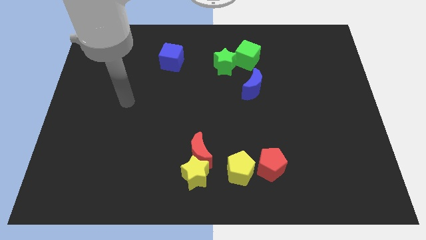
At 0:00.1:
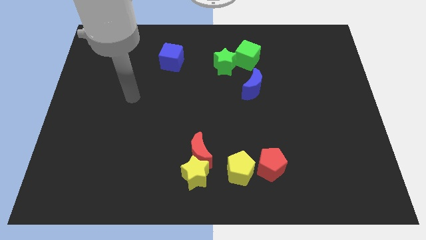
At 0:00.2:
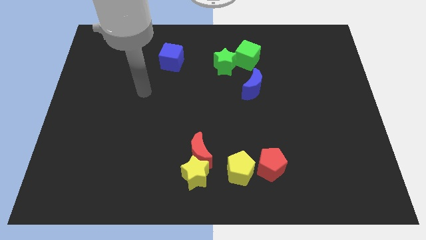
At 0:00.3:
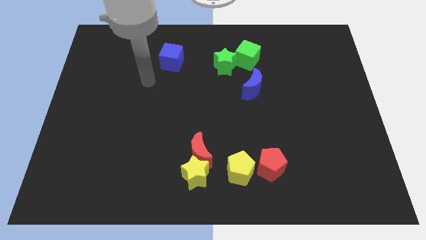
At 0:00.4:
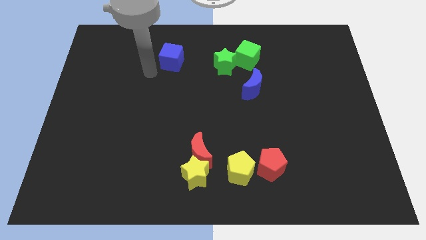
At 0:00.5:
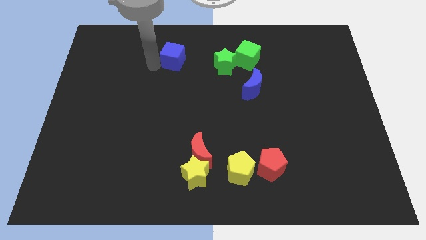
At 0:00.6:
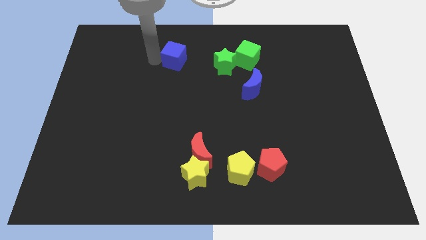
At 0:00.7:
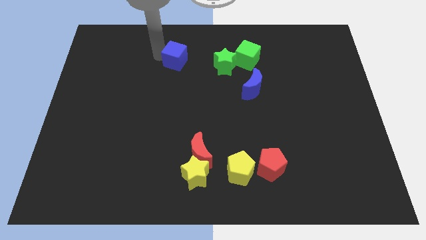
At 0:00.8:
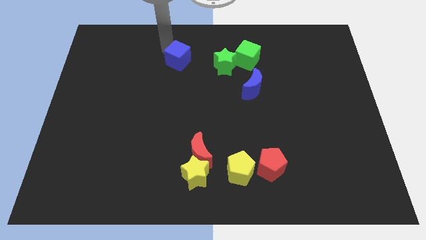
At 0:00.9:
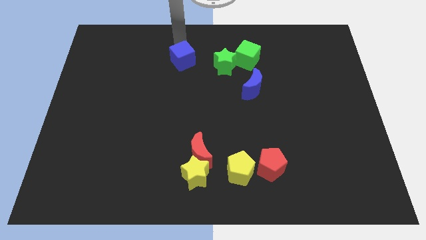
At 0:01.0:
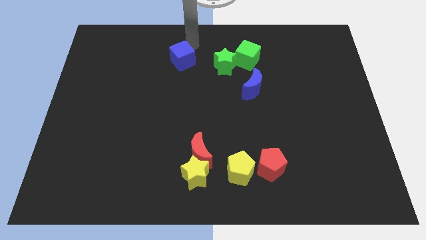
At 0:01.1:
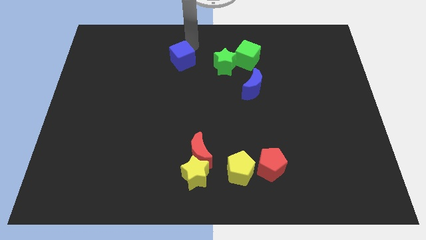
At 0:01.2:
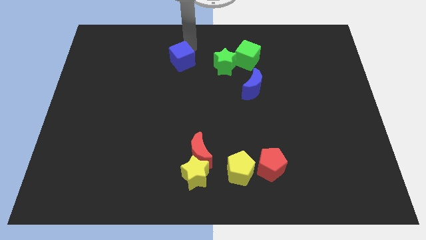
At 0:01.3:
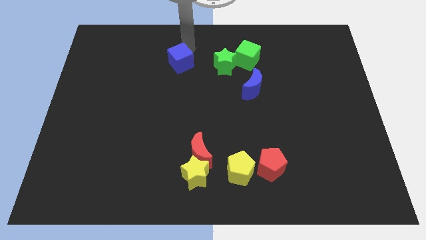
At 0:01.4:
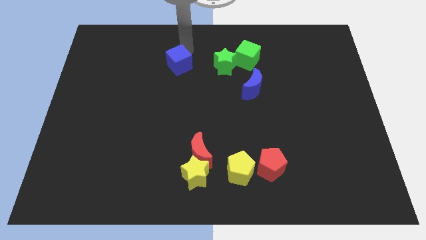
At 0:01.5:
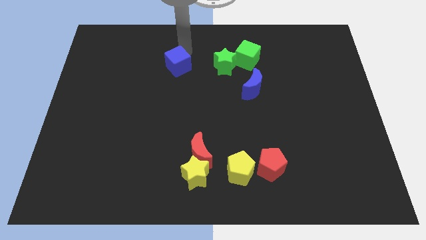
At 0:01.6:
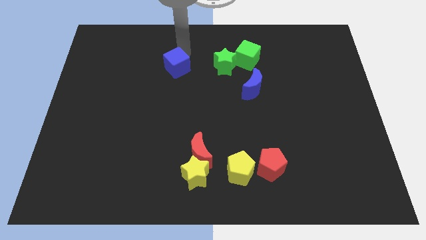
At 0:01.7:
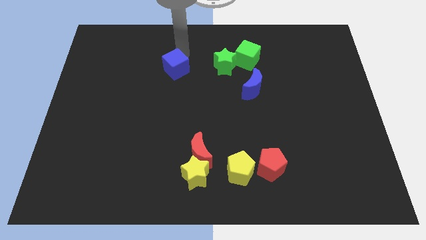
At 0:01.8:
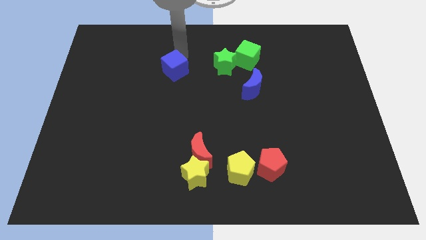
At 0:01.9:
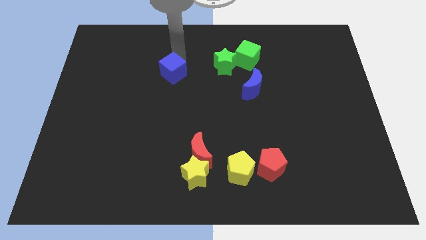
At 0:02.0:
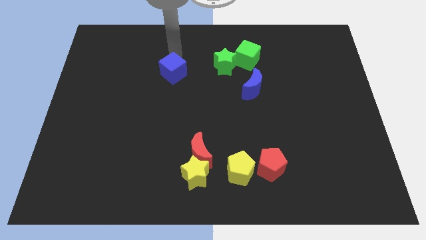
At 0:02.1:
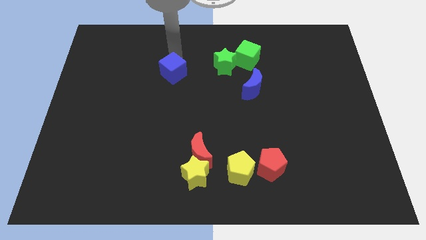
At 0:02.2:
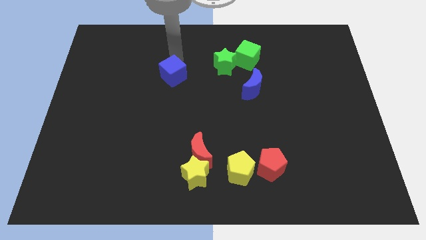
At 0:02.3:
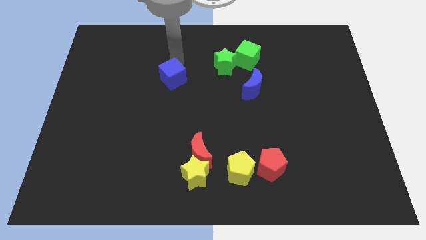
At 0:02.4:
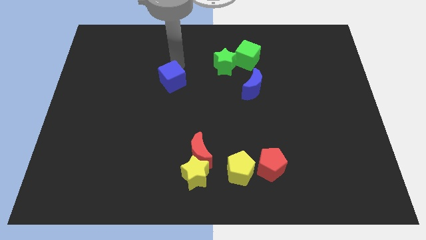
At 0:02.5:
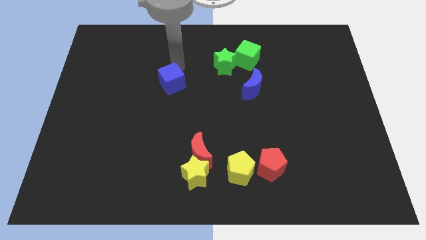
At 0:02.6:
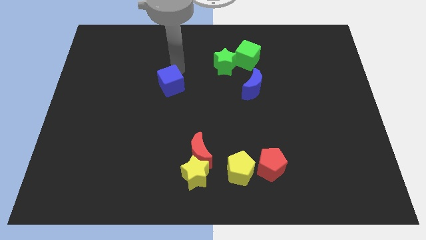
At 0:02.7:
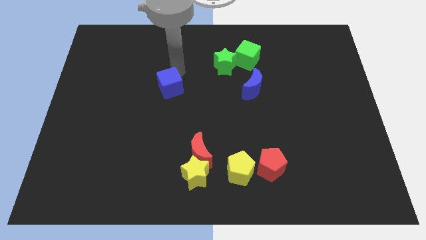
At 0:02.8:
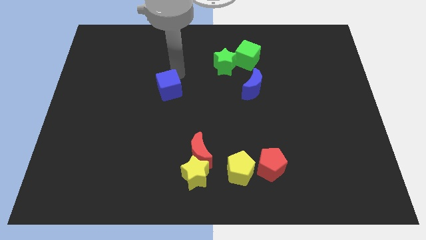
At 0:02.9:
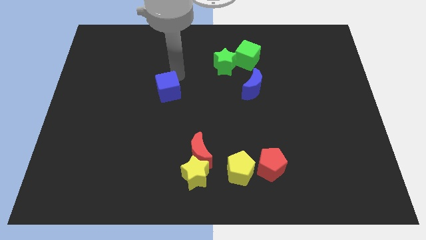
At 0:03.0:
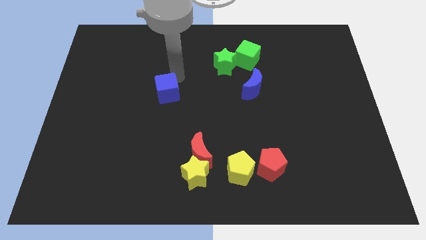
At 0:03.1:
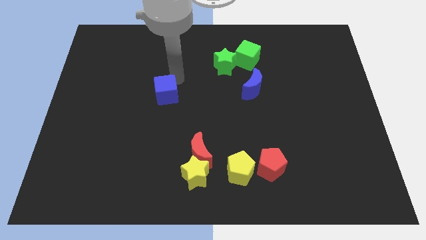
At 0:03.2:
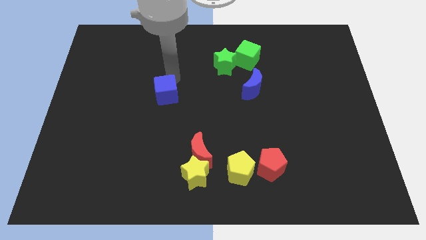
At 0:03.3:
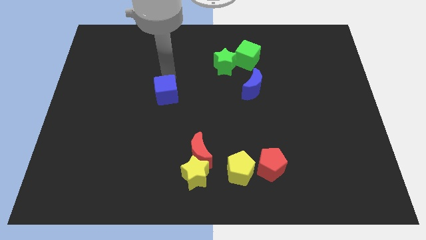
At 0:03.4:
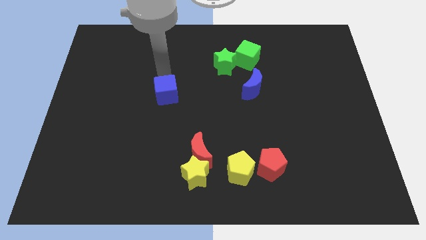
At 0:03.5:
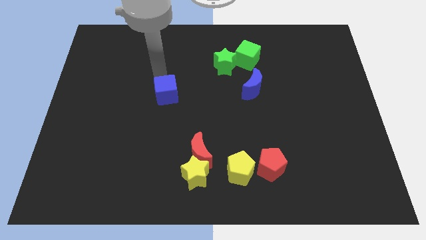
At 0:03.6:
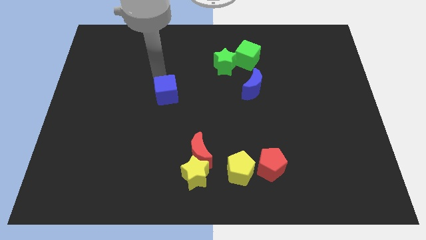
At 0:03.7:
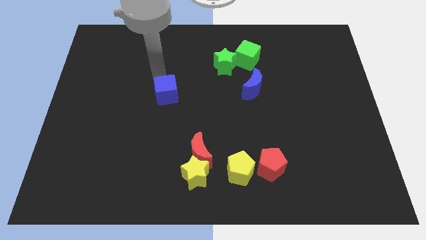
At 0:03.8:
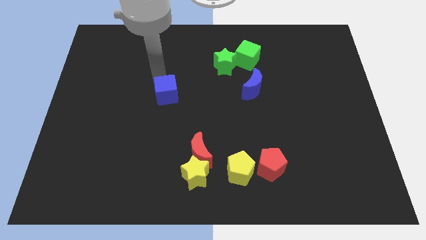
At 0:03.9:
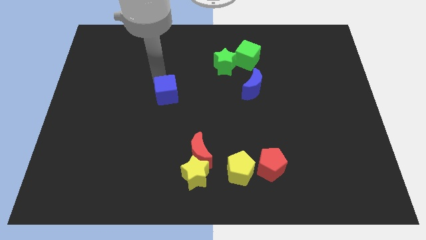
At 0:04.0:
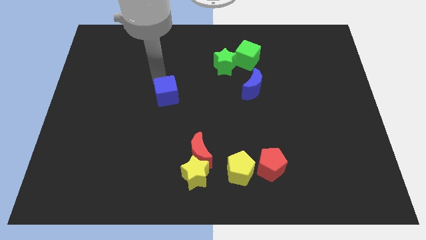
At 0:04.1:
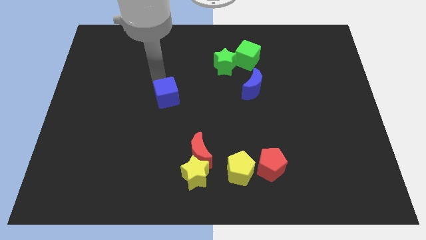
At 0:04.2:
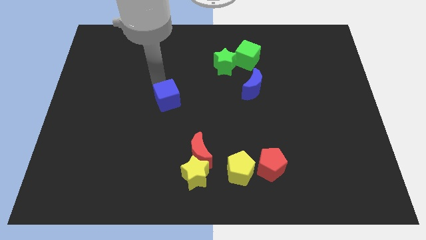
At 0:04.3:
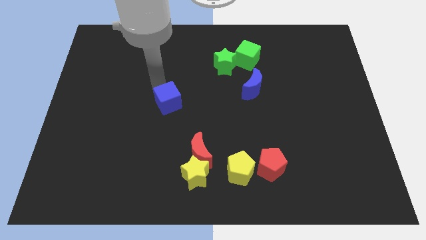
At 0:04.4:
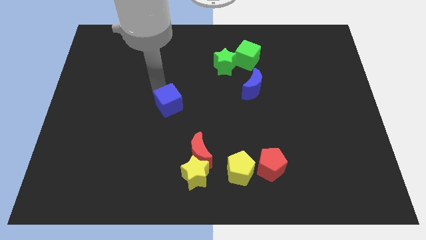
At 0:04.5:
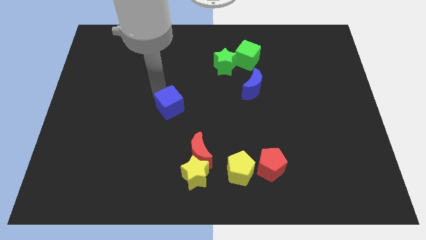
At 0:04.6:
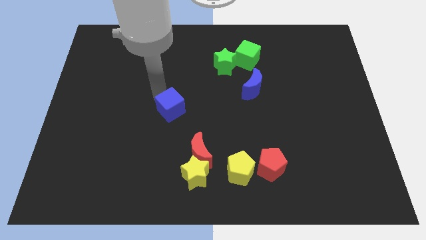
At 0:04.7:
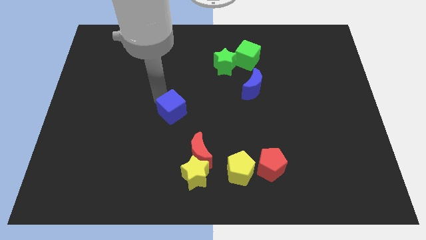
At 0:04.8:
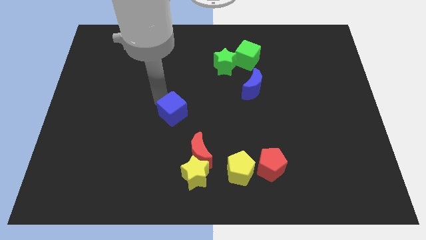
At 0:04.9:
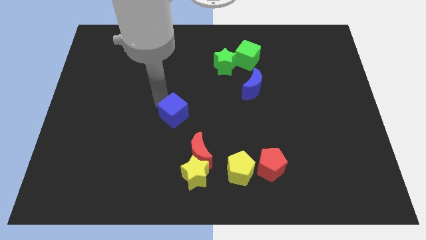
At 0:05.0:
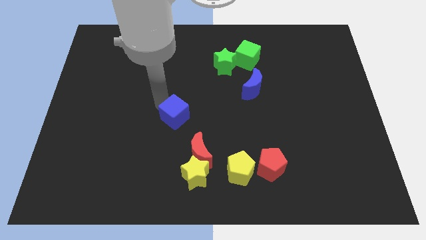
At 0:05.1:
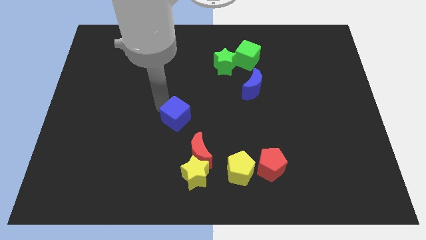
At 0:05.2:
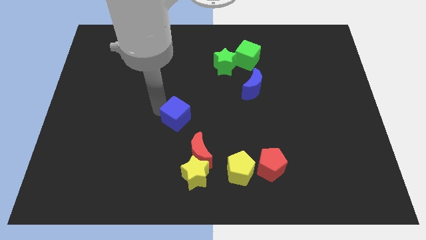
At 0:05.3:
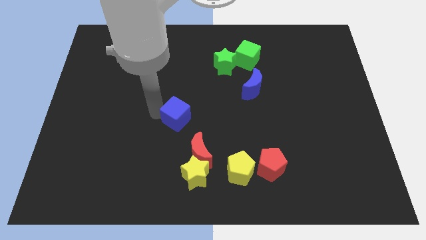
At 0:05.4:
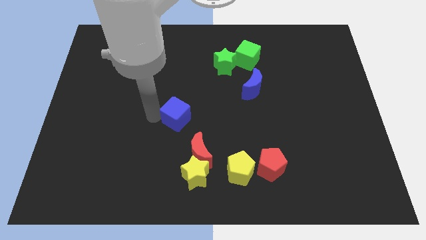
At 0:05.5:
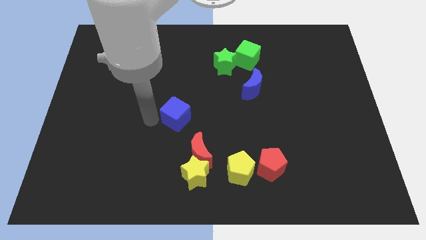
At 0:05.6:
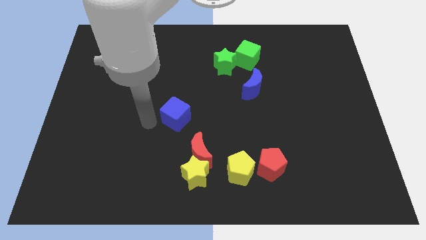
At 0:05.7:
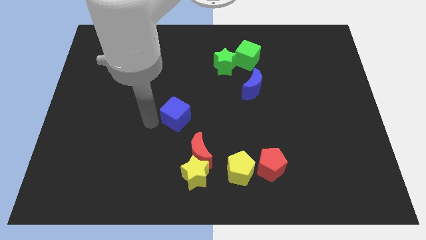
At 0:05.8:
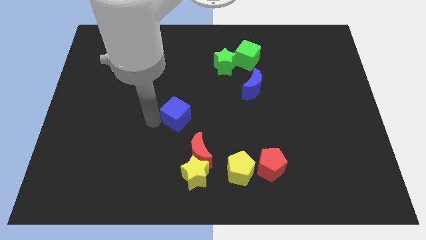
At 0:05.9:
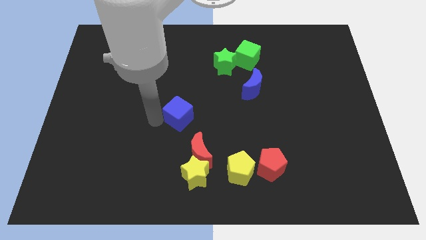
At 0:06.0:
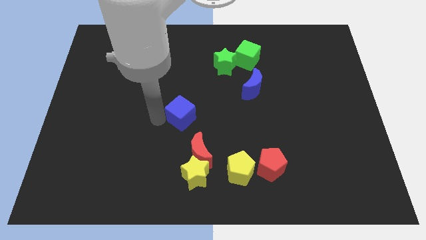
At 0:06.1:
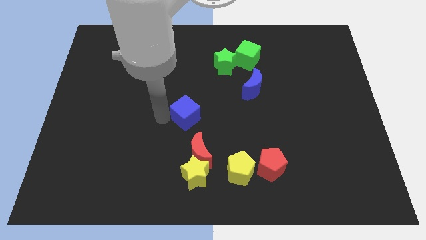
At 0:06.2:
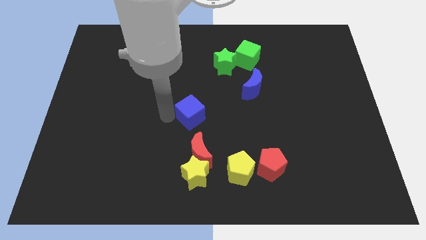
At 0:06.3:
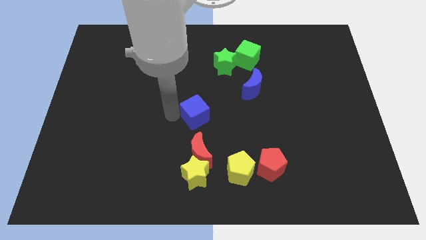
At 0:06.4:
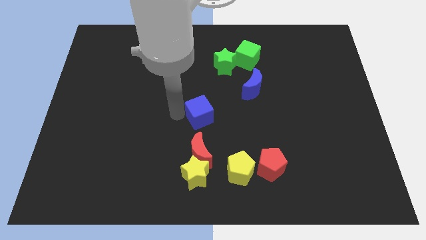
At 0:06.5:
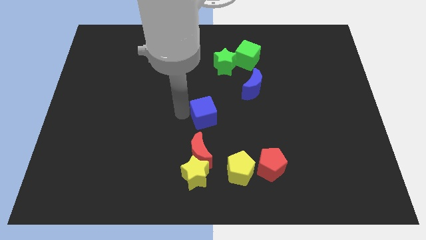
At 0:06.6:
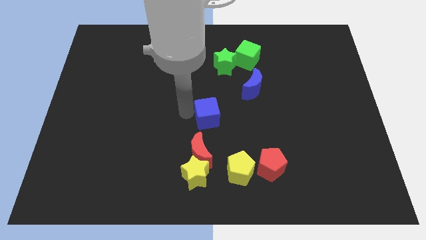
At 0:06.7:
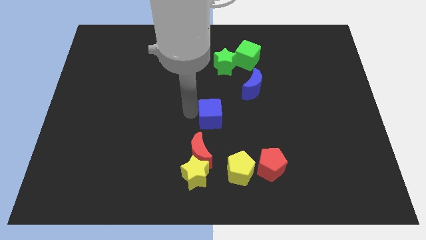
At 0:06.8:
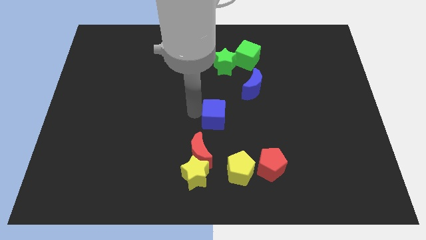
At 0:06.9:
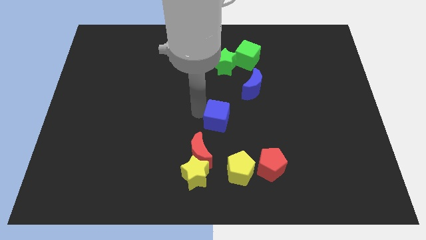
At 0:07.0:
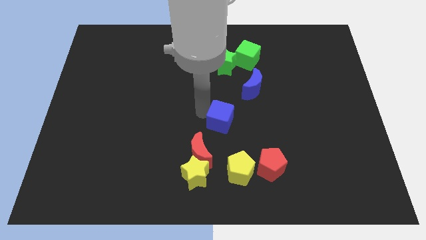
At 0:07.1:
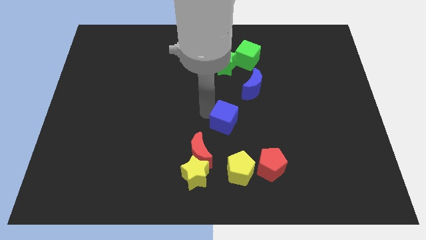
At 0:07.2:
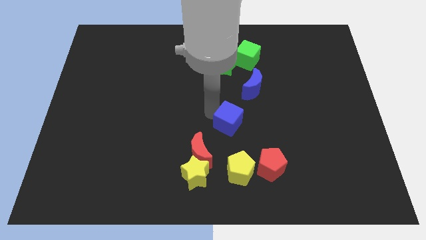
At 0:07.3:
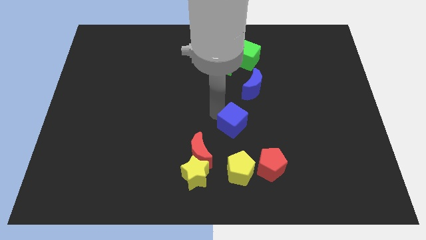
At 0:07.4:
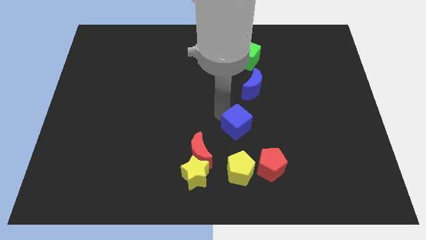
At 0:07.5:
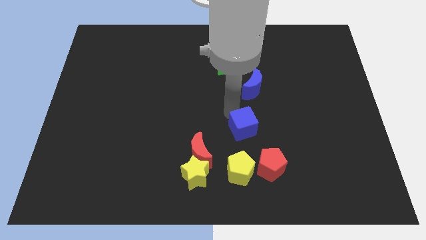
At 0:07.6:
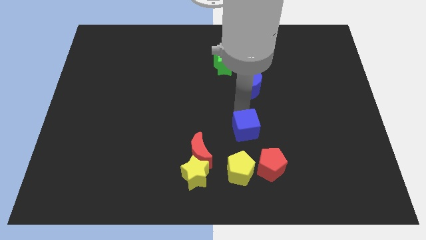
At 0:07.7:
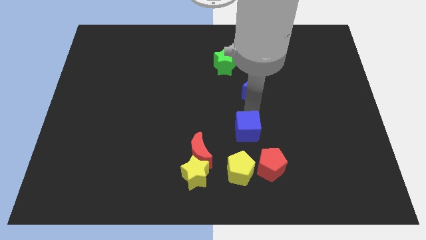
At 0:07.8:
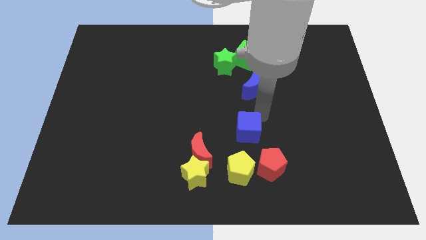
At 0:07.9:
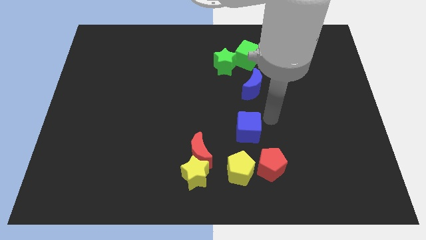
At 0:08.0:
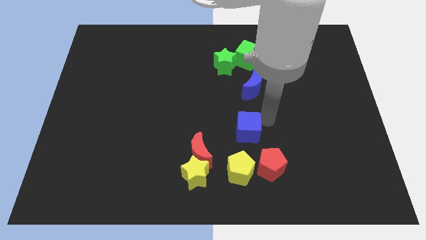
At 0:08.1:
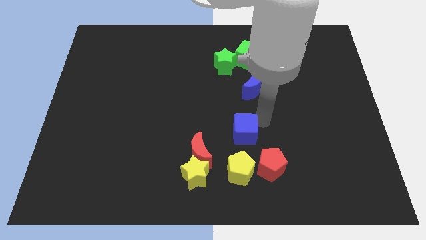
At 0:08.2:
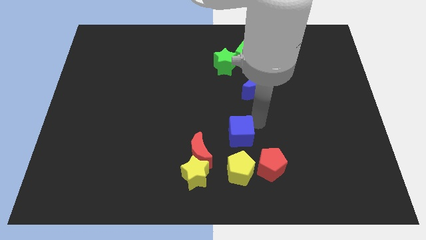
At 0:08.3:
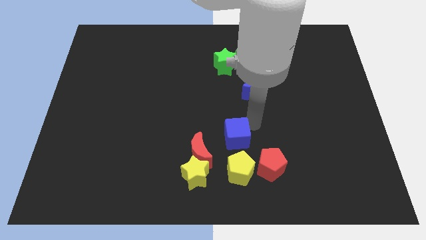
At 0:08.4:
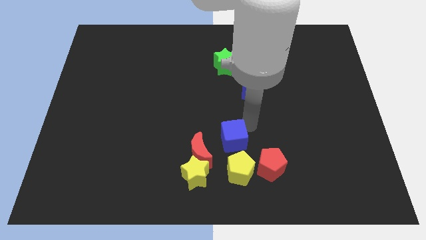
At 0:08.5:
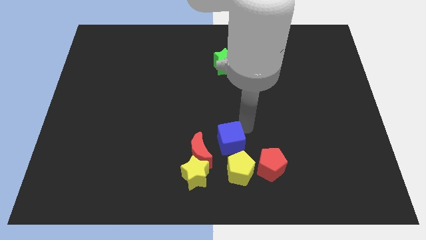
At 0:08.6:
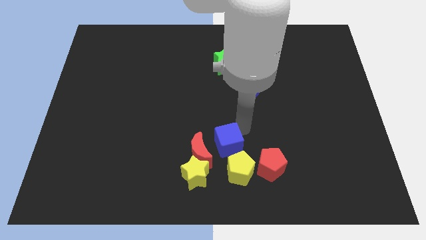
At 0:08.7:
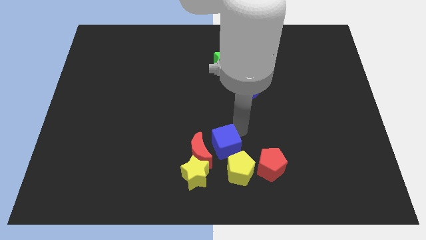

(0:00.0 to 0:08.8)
put the blue cube towards the red moon
